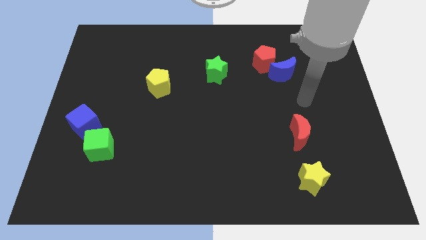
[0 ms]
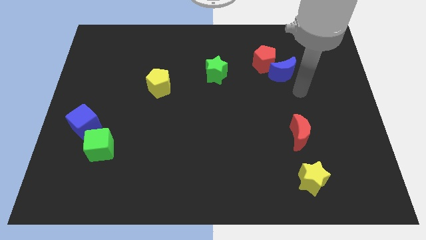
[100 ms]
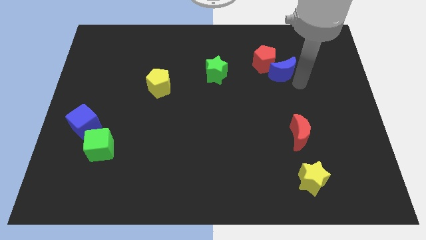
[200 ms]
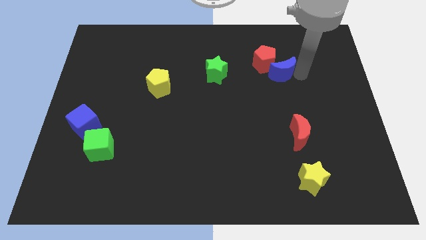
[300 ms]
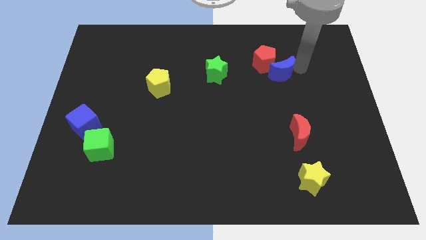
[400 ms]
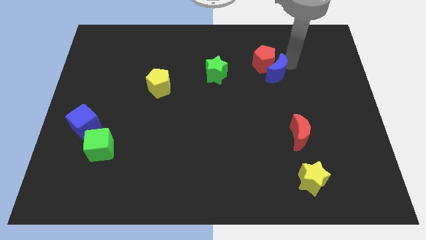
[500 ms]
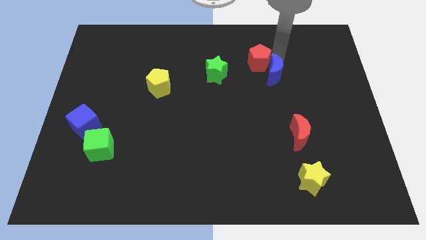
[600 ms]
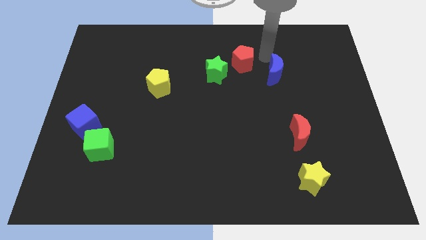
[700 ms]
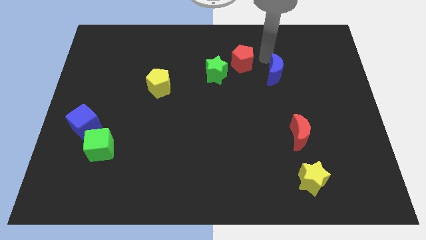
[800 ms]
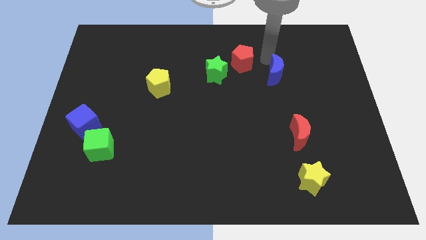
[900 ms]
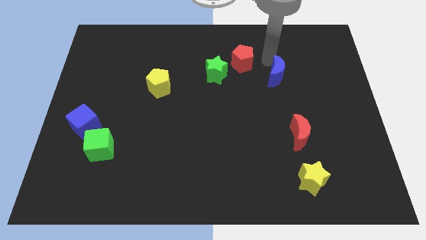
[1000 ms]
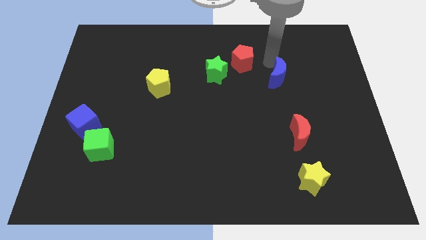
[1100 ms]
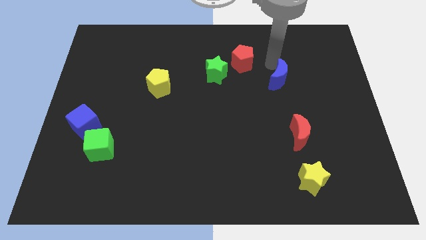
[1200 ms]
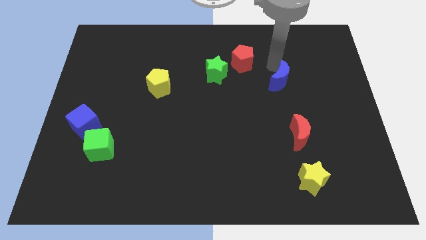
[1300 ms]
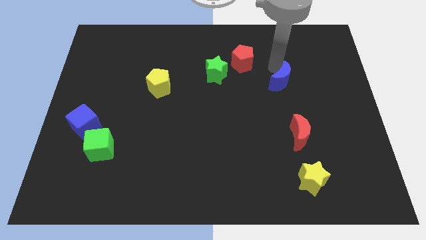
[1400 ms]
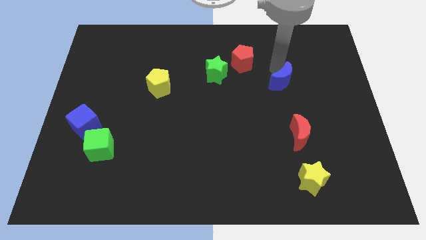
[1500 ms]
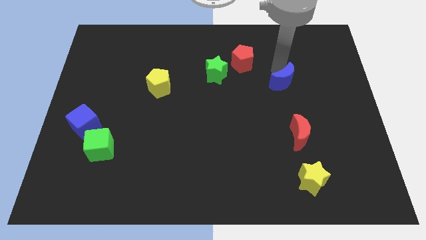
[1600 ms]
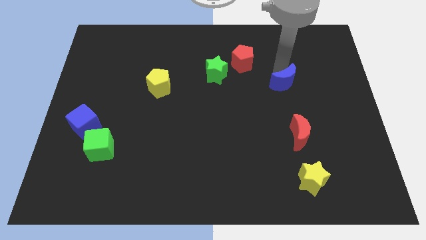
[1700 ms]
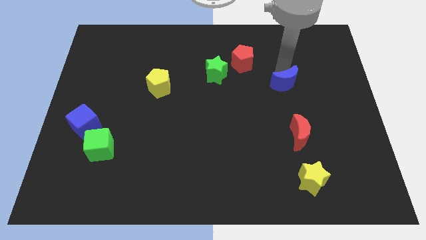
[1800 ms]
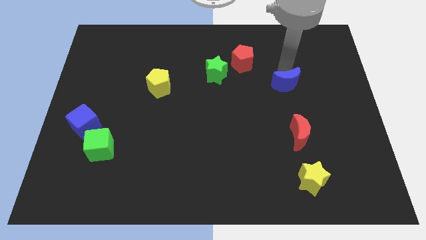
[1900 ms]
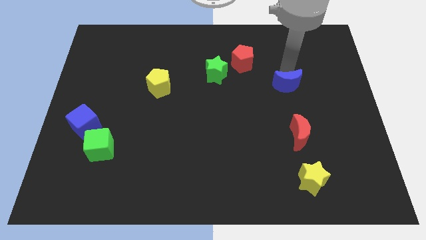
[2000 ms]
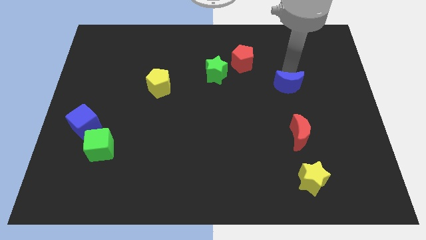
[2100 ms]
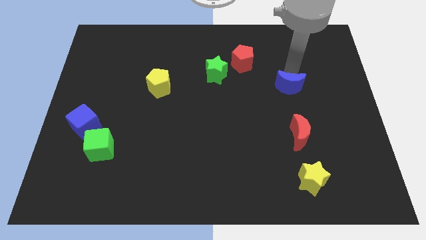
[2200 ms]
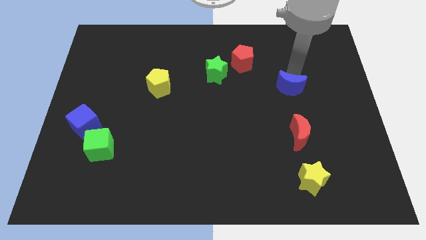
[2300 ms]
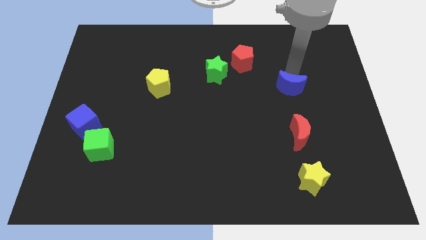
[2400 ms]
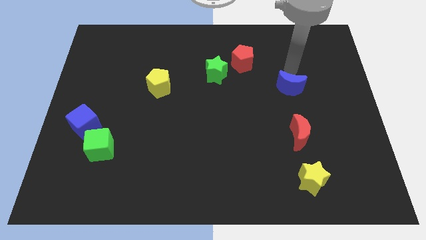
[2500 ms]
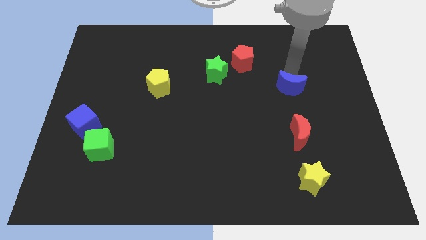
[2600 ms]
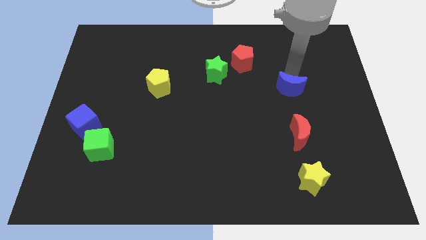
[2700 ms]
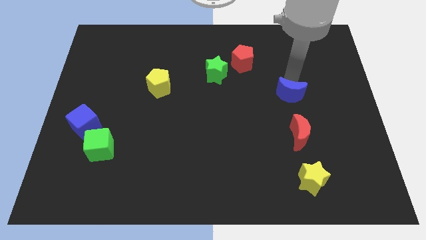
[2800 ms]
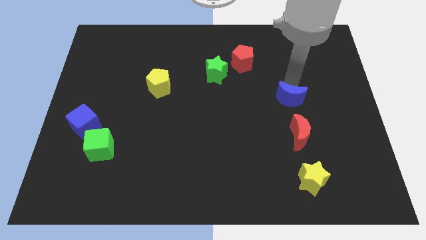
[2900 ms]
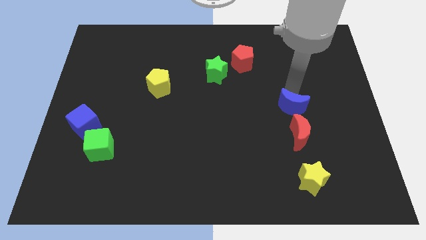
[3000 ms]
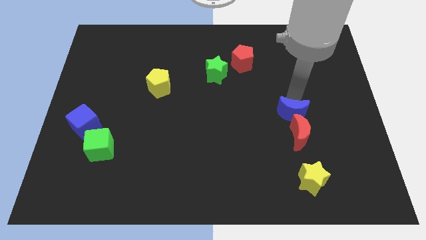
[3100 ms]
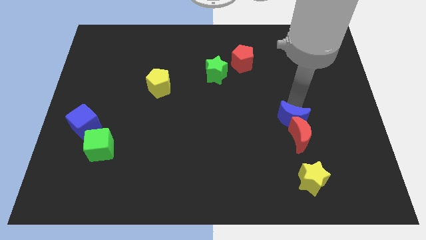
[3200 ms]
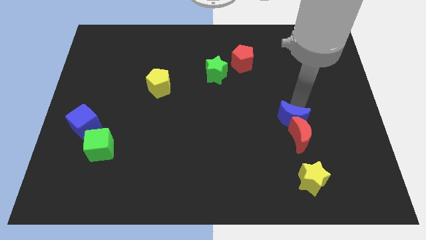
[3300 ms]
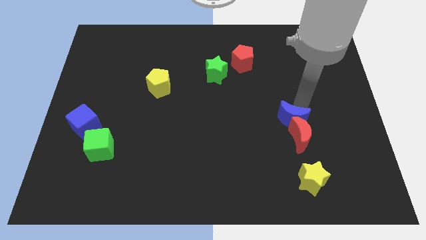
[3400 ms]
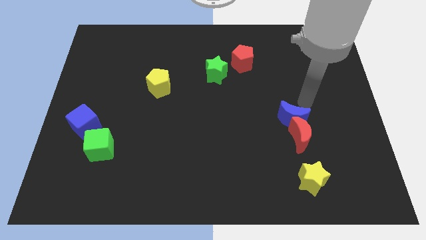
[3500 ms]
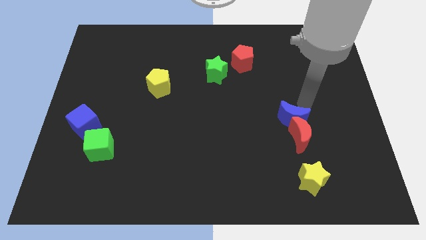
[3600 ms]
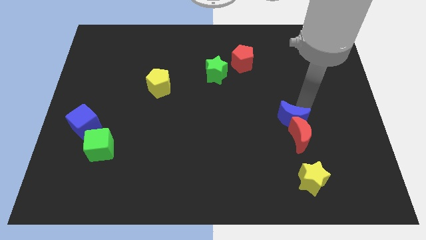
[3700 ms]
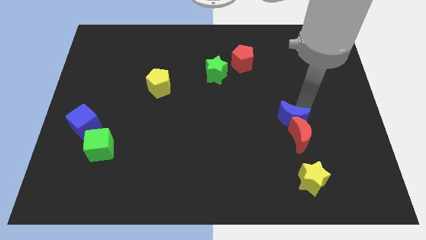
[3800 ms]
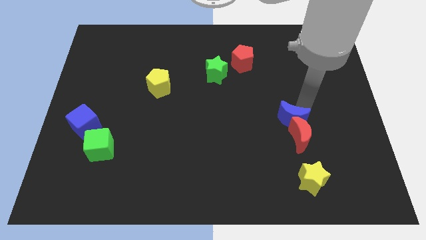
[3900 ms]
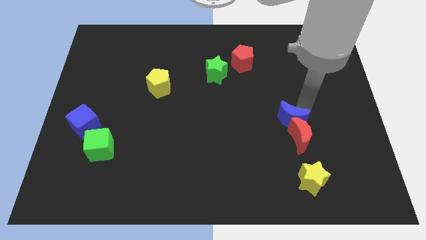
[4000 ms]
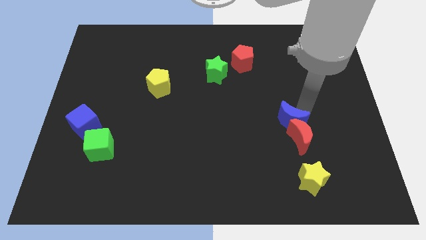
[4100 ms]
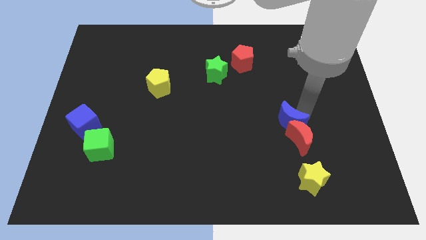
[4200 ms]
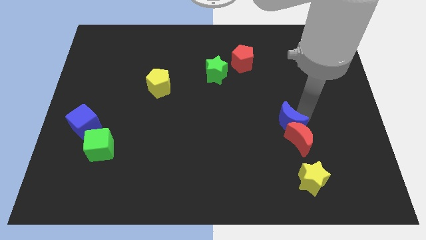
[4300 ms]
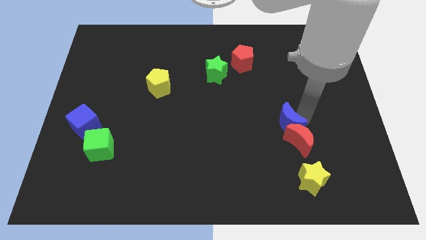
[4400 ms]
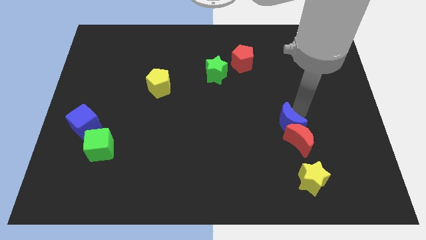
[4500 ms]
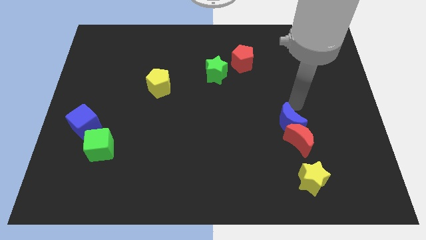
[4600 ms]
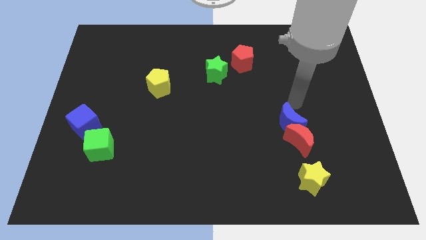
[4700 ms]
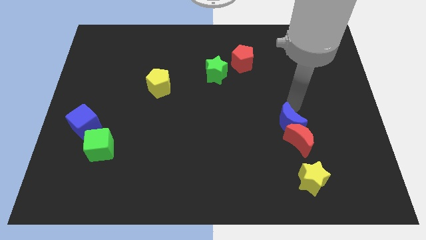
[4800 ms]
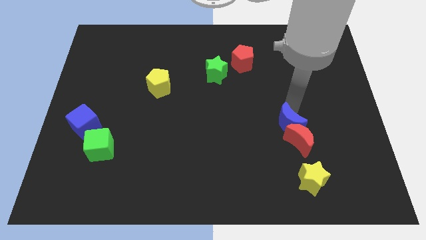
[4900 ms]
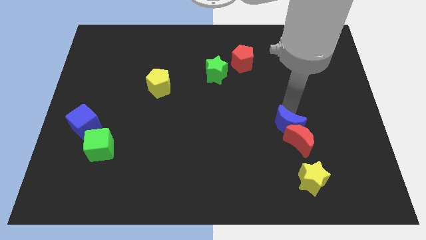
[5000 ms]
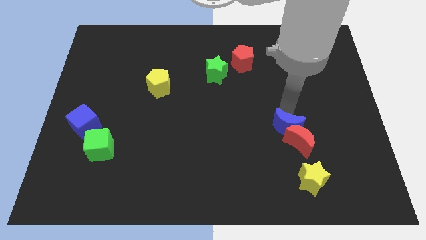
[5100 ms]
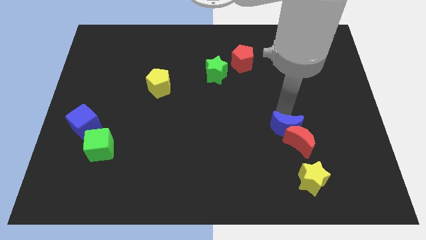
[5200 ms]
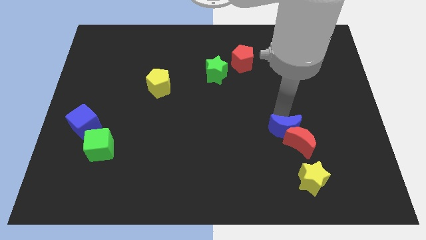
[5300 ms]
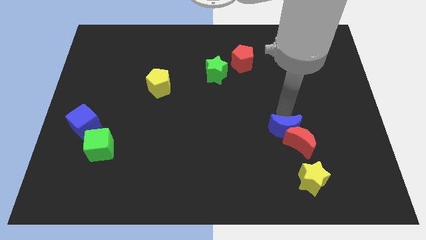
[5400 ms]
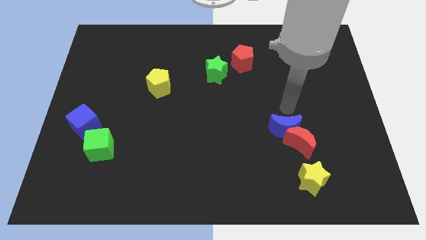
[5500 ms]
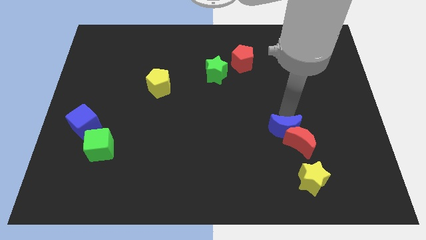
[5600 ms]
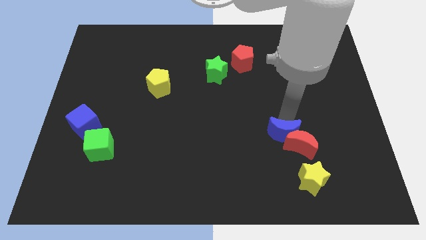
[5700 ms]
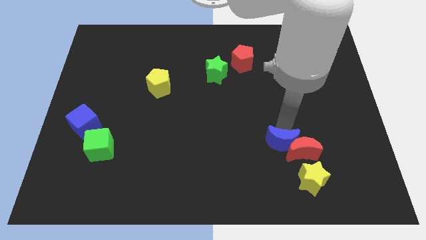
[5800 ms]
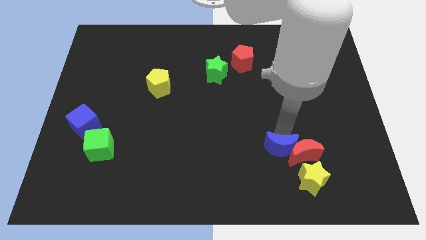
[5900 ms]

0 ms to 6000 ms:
put the blue moon to the bottom left side of the red moon

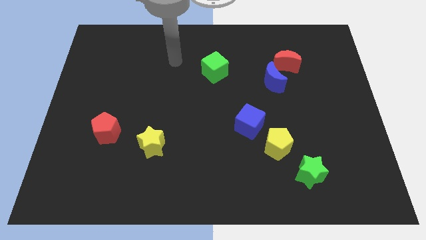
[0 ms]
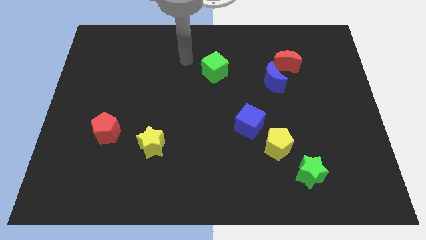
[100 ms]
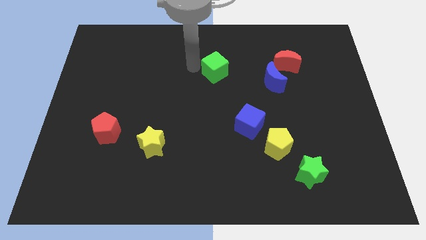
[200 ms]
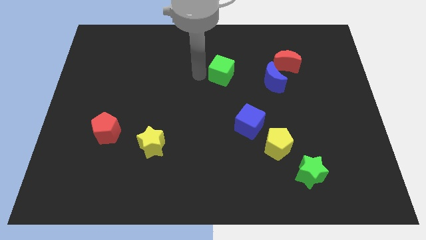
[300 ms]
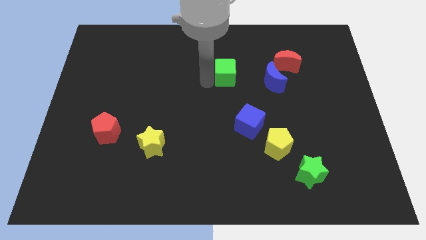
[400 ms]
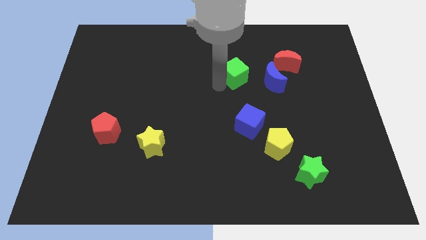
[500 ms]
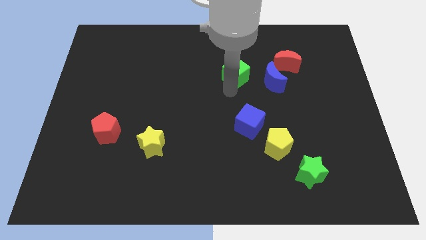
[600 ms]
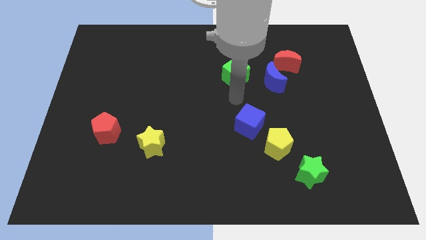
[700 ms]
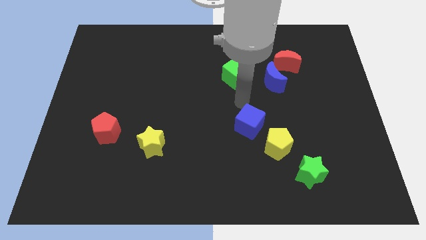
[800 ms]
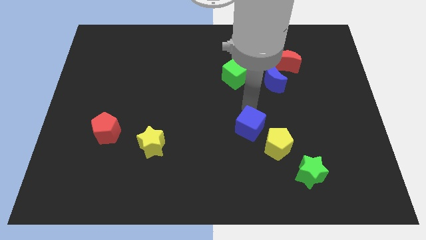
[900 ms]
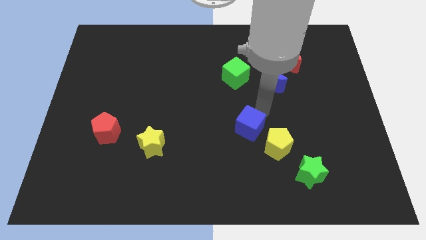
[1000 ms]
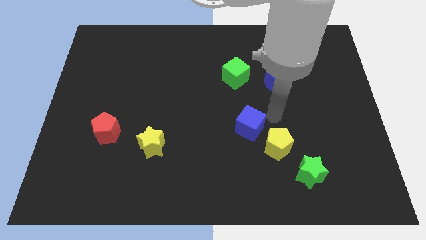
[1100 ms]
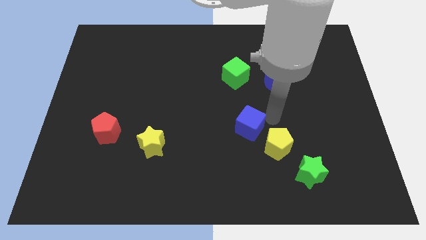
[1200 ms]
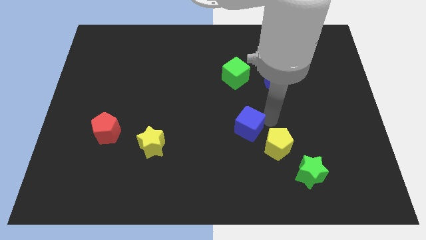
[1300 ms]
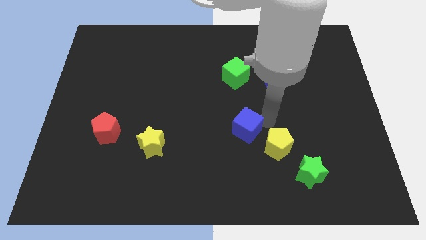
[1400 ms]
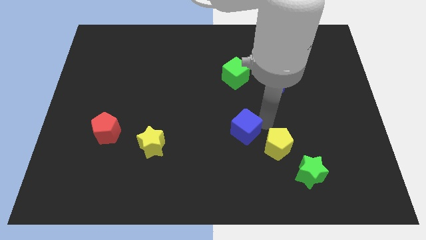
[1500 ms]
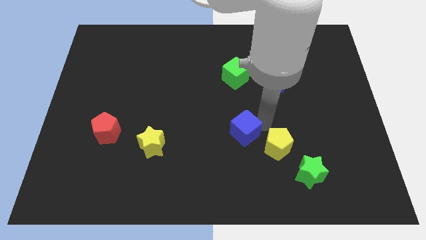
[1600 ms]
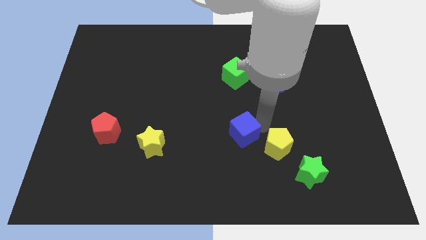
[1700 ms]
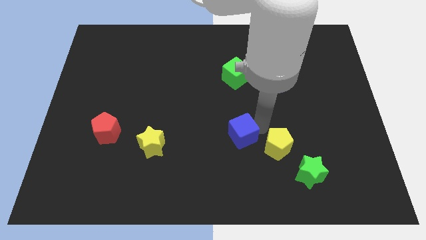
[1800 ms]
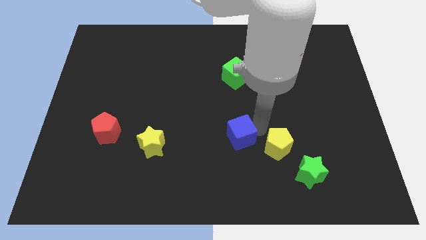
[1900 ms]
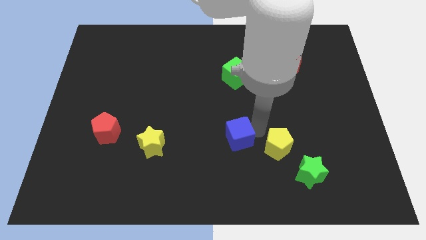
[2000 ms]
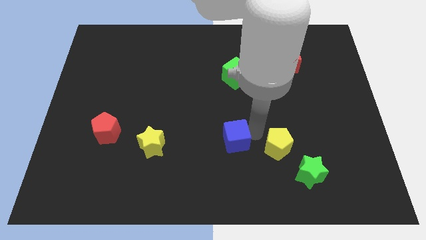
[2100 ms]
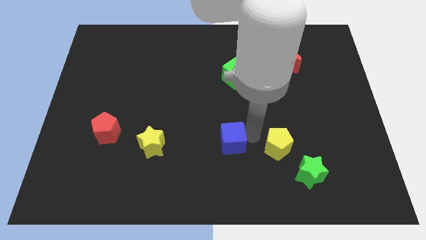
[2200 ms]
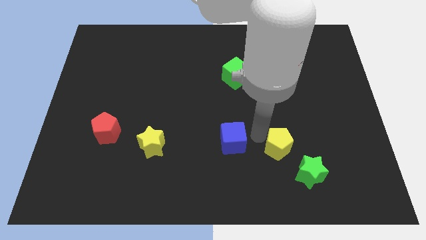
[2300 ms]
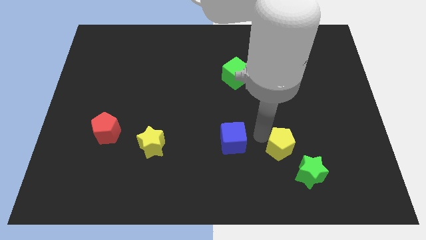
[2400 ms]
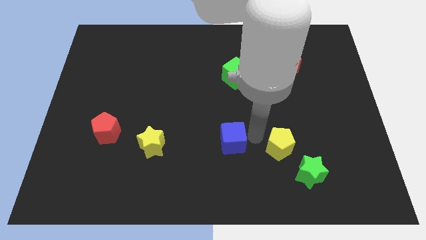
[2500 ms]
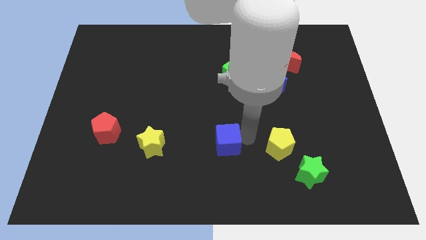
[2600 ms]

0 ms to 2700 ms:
push the blue cube just right of the yellow star
